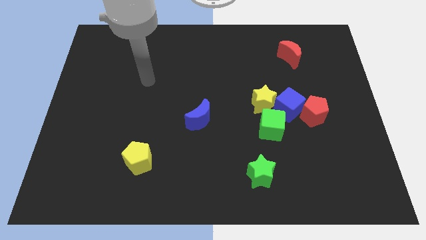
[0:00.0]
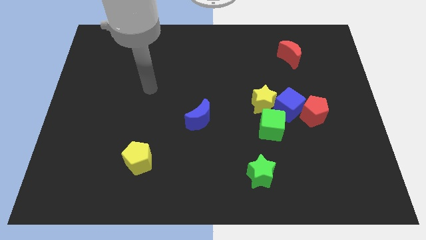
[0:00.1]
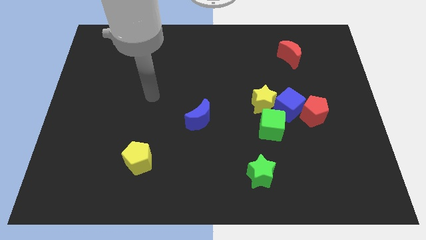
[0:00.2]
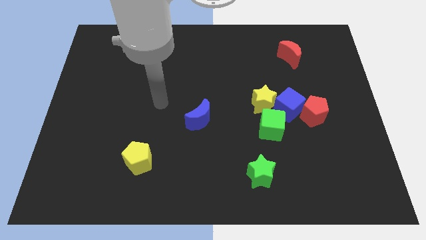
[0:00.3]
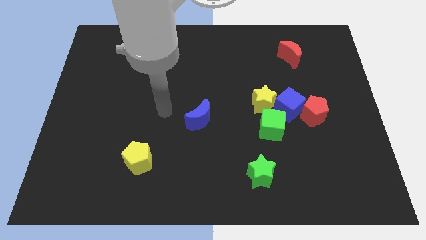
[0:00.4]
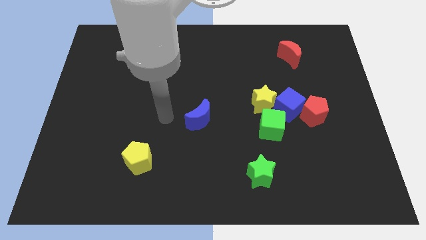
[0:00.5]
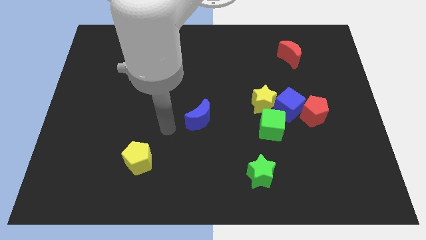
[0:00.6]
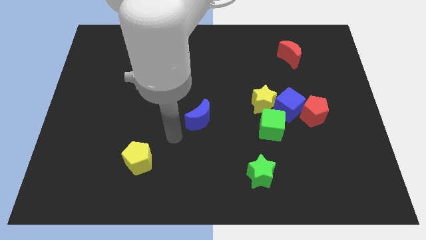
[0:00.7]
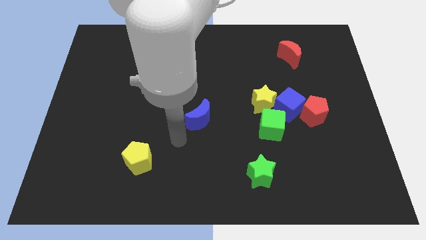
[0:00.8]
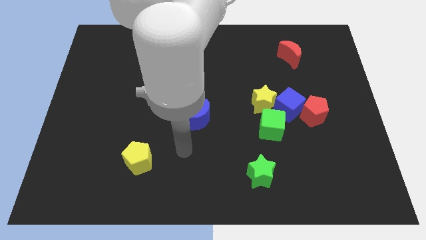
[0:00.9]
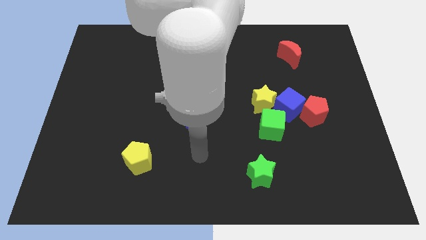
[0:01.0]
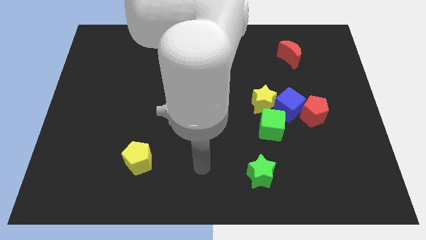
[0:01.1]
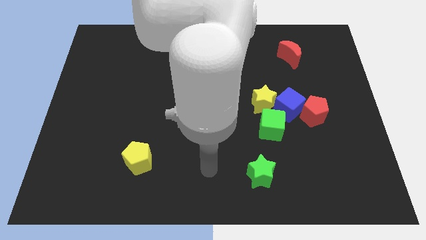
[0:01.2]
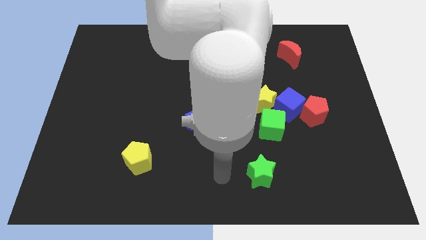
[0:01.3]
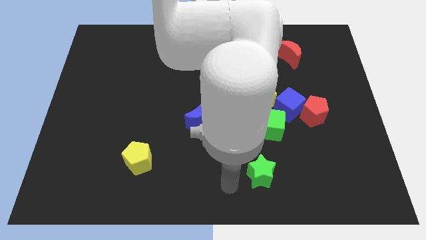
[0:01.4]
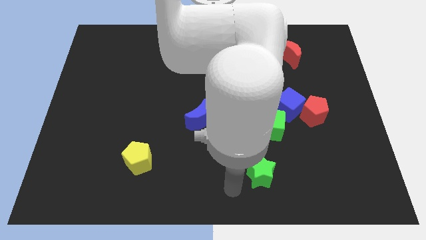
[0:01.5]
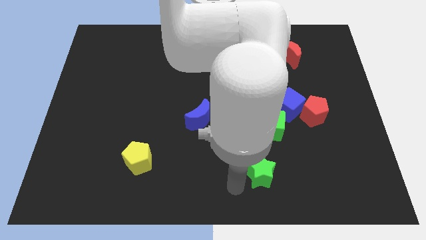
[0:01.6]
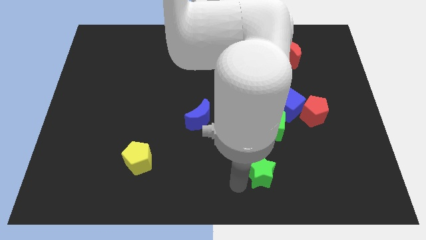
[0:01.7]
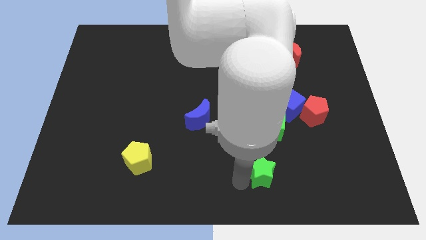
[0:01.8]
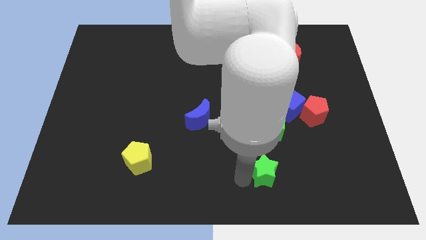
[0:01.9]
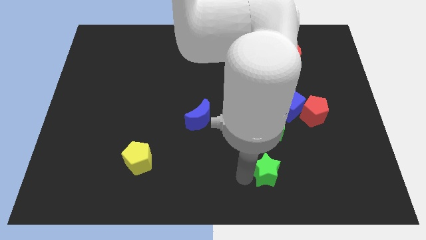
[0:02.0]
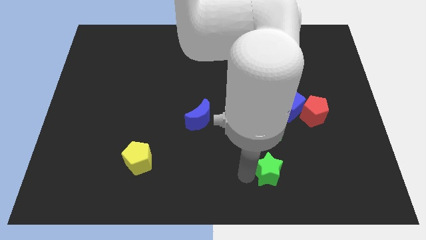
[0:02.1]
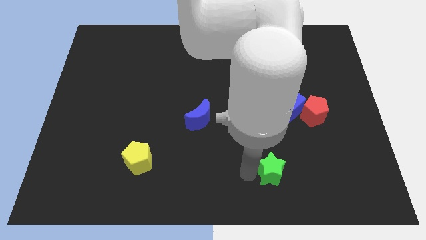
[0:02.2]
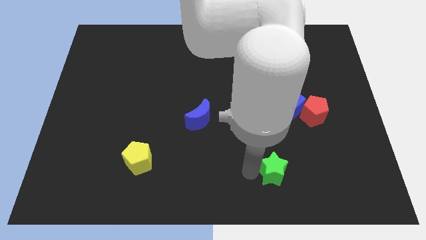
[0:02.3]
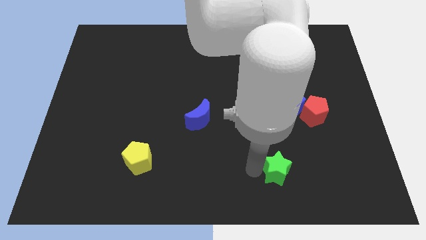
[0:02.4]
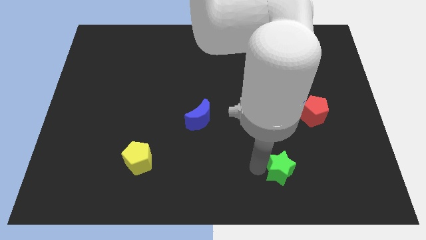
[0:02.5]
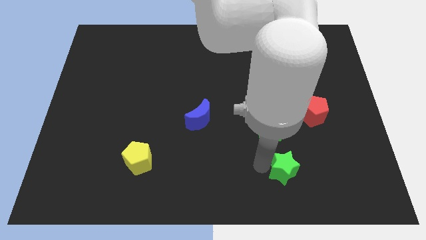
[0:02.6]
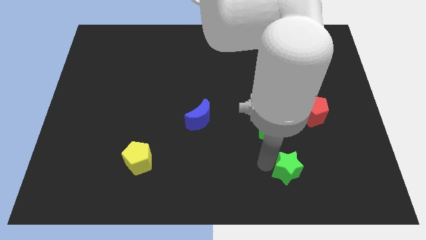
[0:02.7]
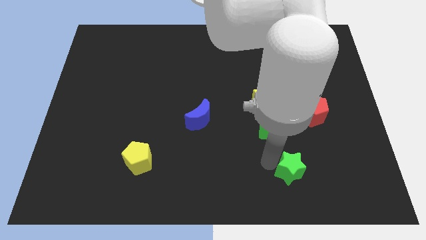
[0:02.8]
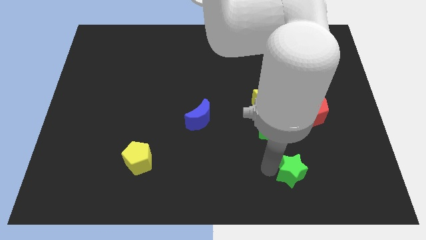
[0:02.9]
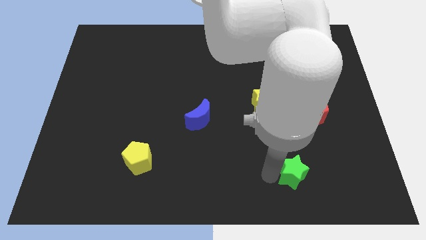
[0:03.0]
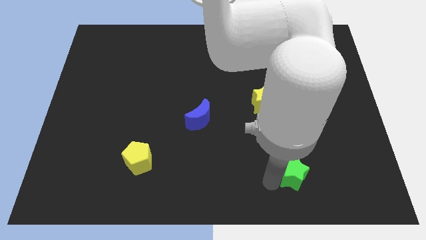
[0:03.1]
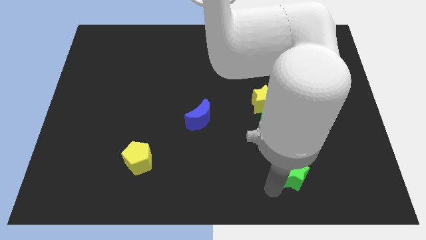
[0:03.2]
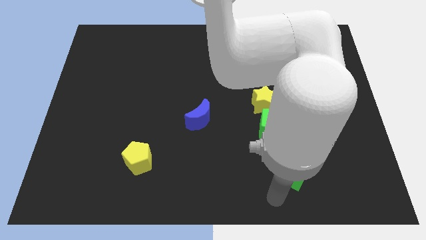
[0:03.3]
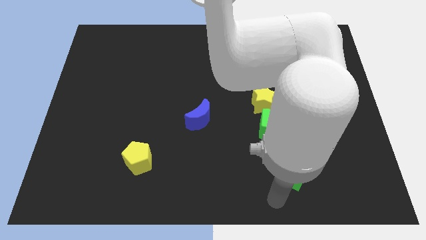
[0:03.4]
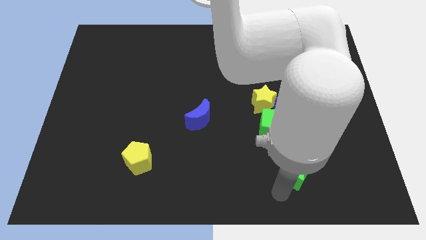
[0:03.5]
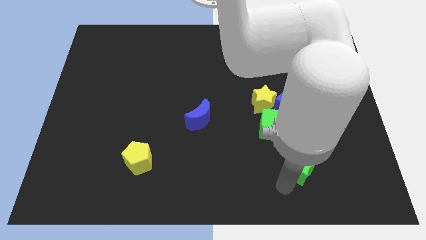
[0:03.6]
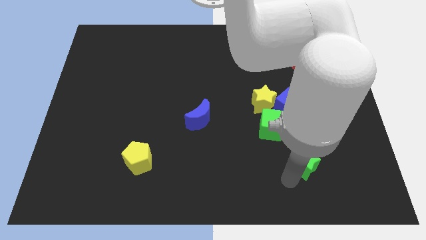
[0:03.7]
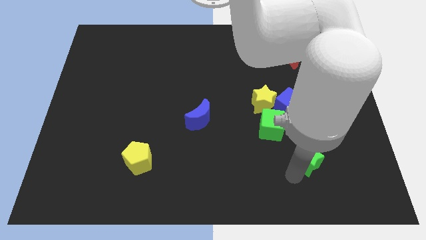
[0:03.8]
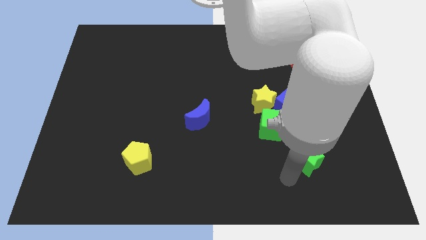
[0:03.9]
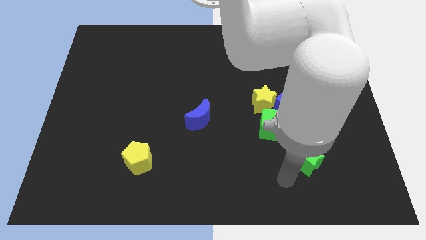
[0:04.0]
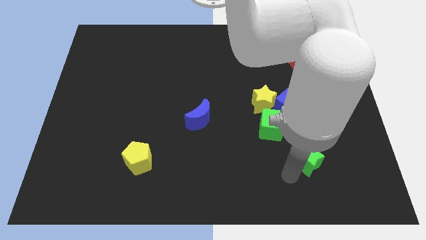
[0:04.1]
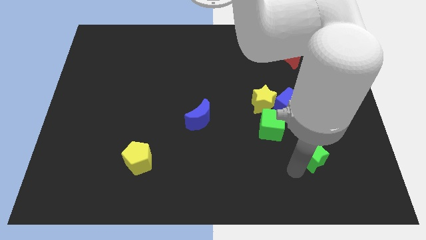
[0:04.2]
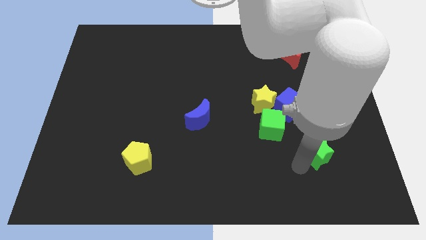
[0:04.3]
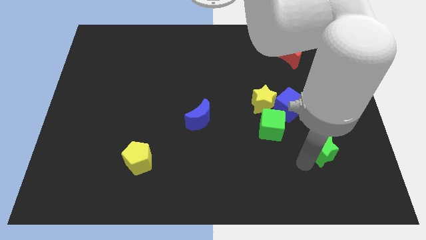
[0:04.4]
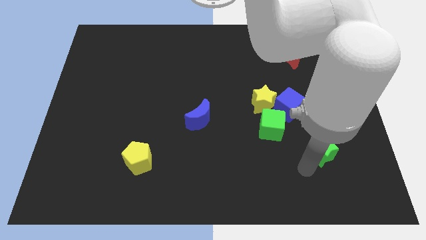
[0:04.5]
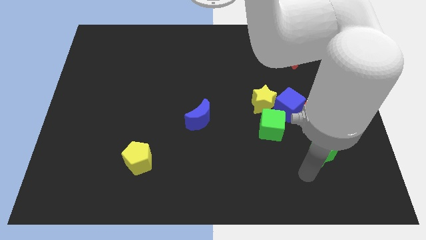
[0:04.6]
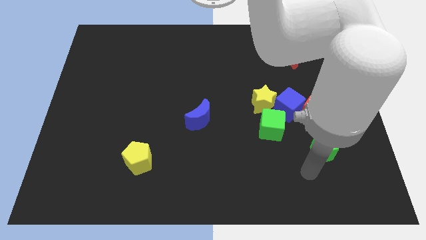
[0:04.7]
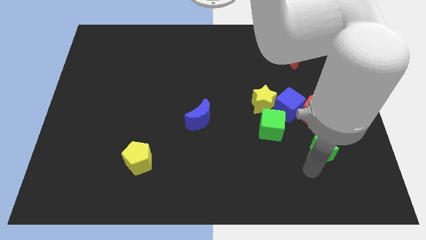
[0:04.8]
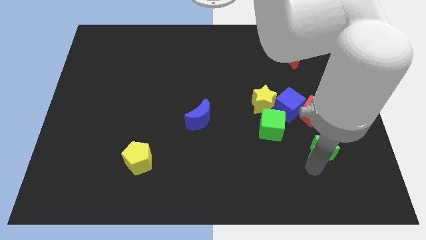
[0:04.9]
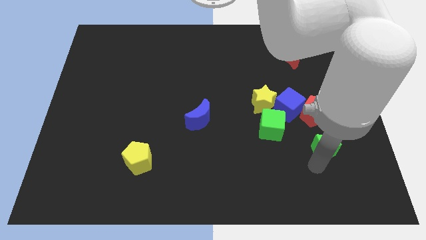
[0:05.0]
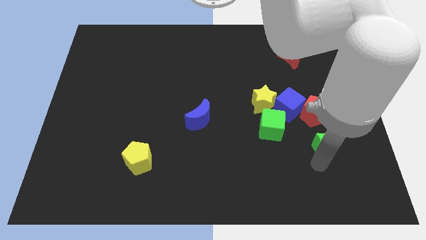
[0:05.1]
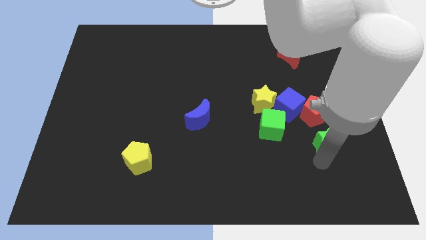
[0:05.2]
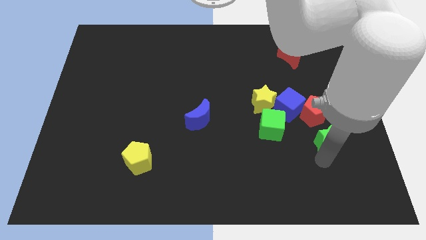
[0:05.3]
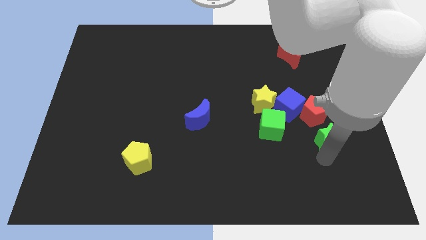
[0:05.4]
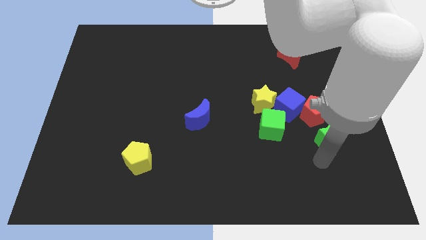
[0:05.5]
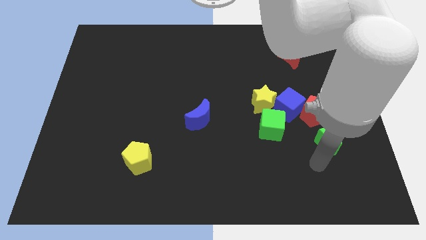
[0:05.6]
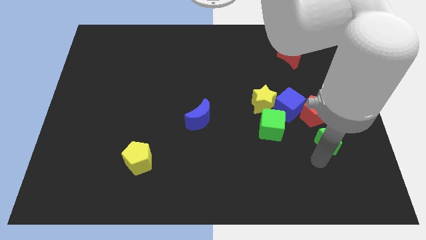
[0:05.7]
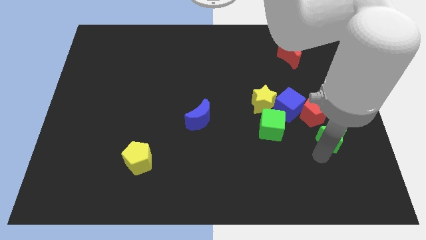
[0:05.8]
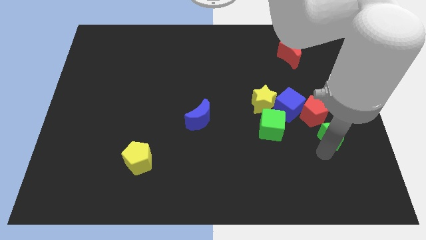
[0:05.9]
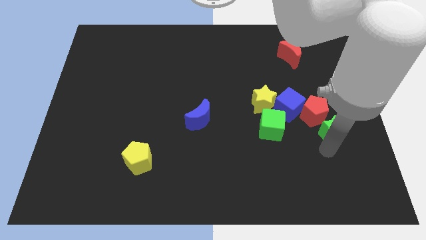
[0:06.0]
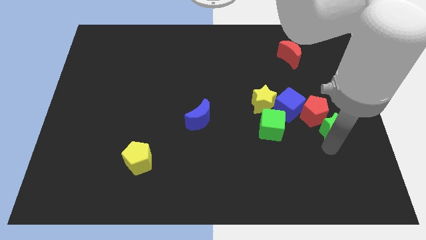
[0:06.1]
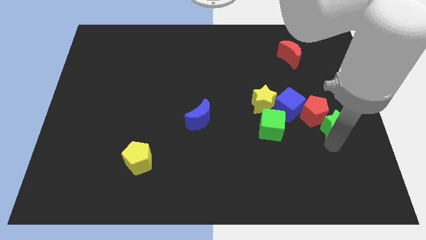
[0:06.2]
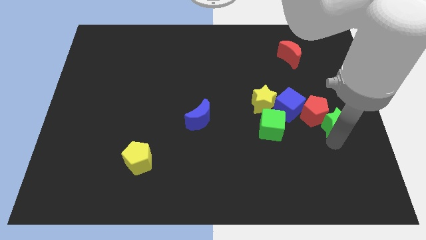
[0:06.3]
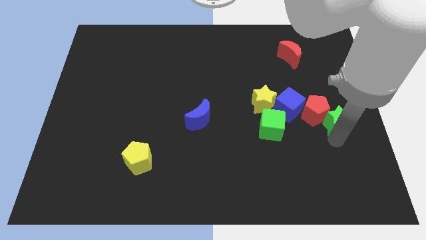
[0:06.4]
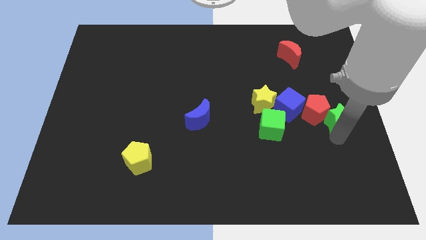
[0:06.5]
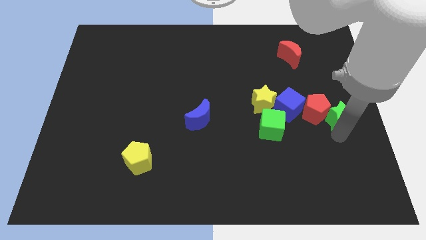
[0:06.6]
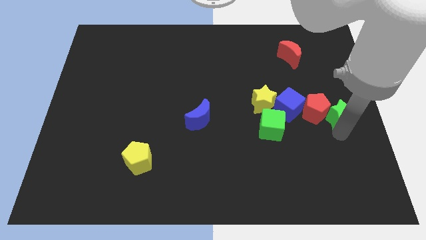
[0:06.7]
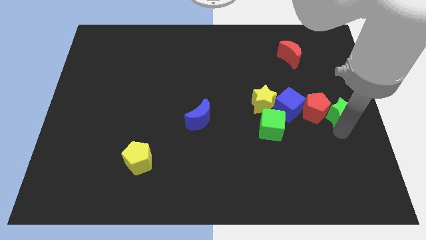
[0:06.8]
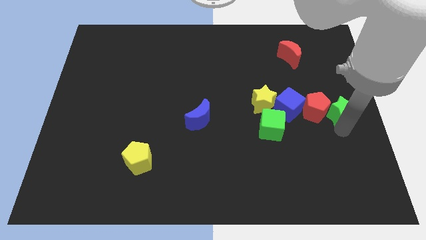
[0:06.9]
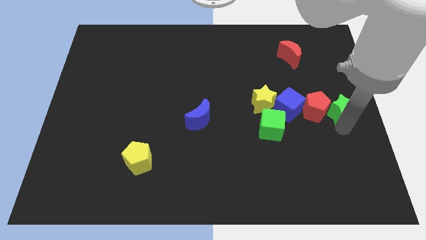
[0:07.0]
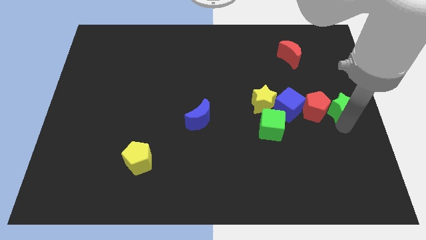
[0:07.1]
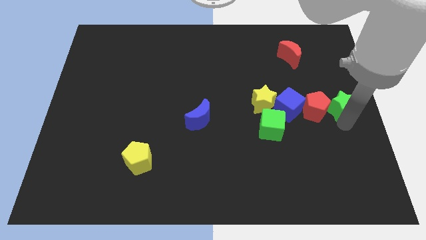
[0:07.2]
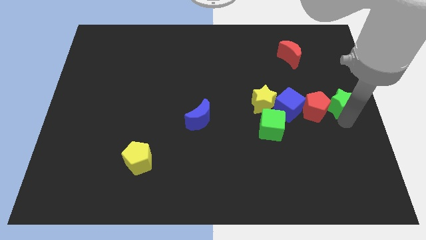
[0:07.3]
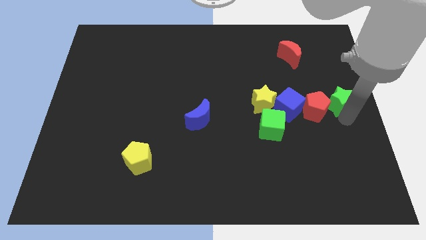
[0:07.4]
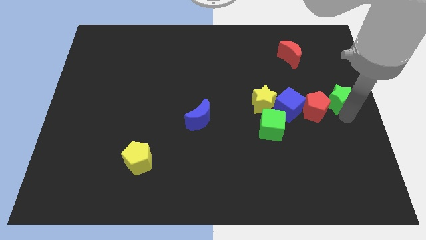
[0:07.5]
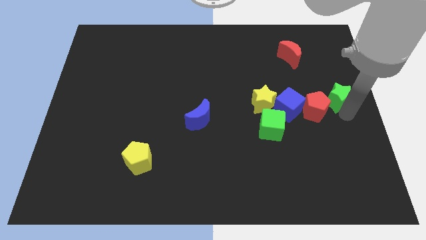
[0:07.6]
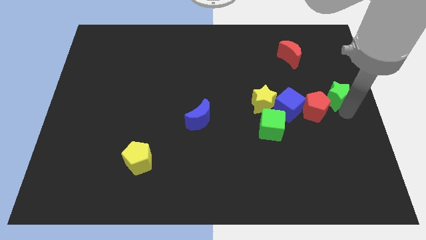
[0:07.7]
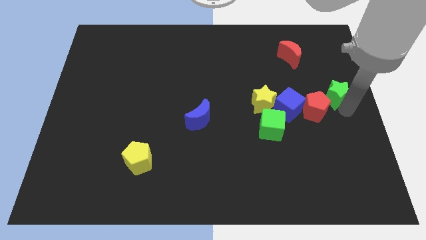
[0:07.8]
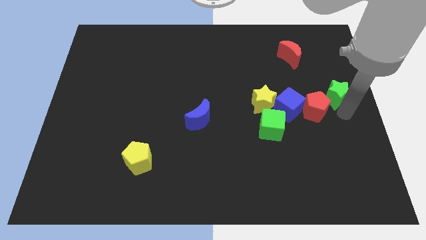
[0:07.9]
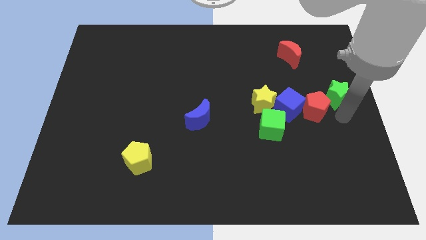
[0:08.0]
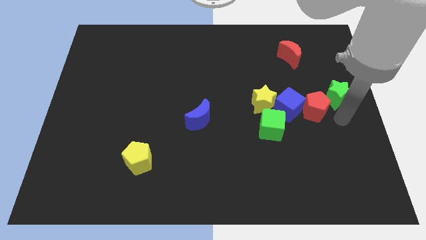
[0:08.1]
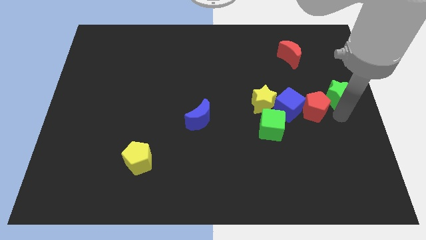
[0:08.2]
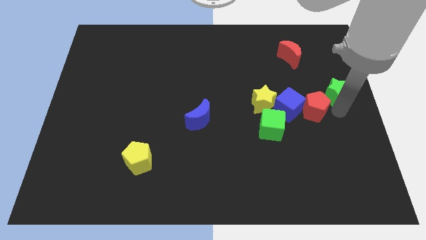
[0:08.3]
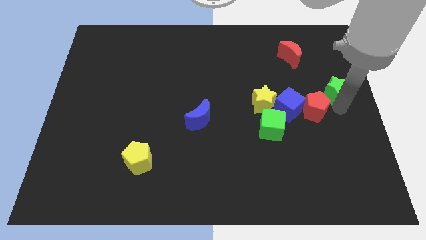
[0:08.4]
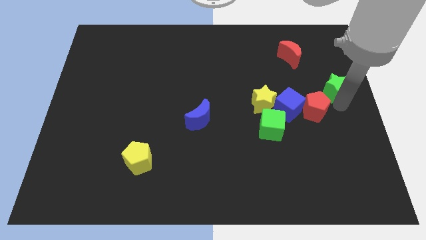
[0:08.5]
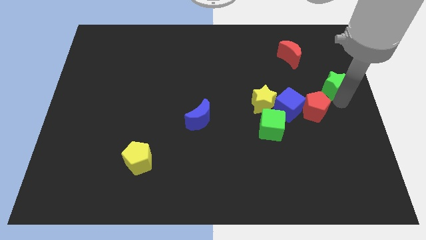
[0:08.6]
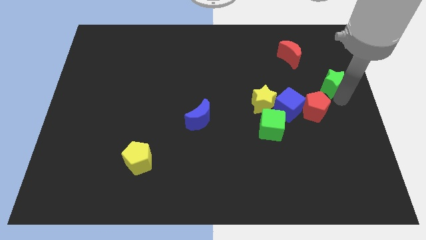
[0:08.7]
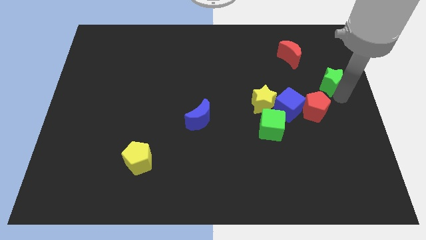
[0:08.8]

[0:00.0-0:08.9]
move the green star to the bottom right of the red moon
